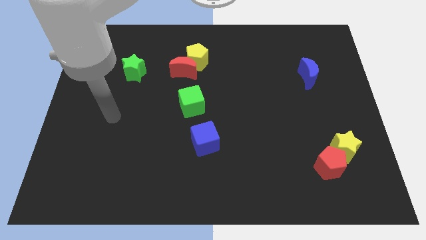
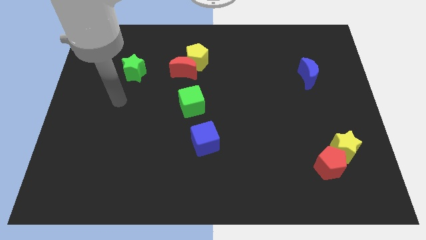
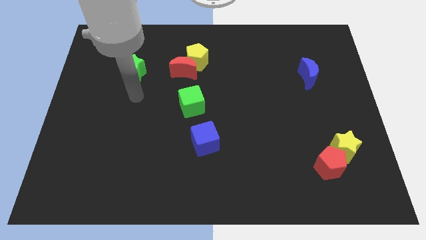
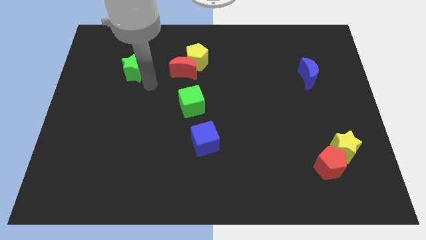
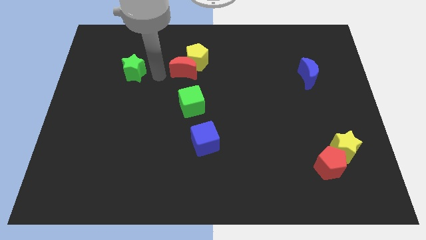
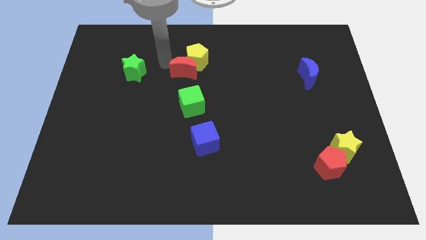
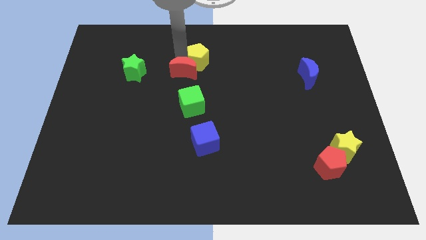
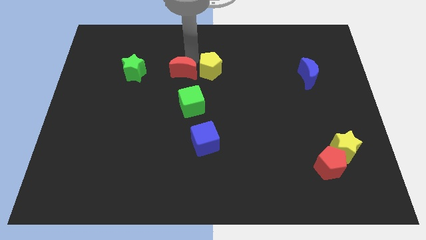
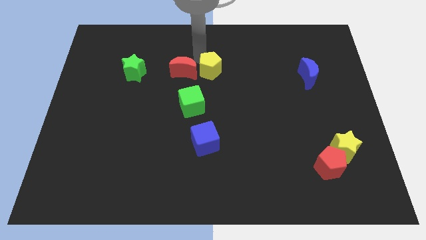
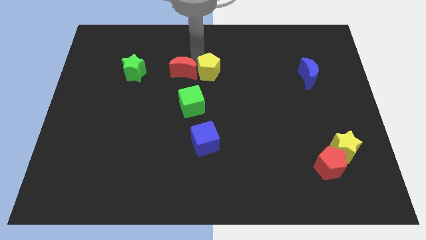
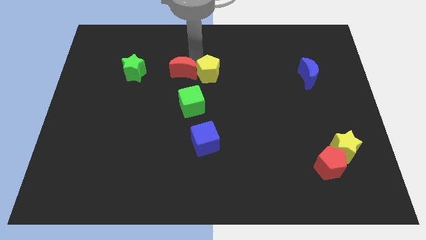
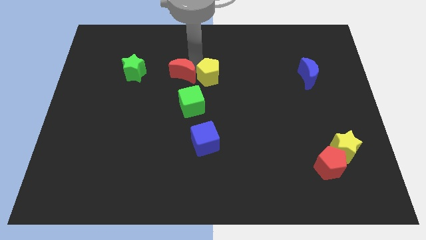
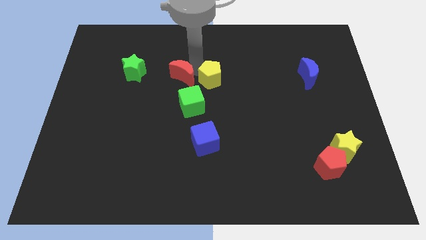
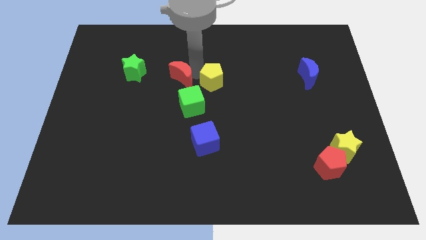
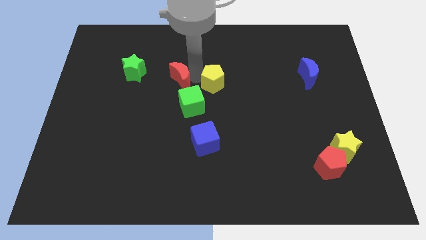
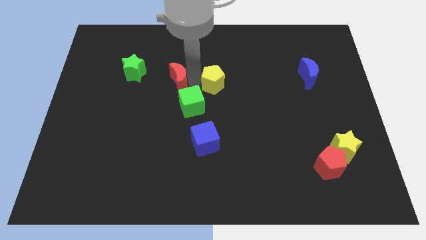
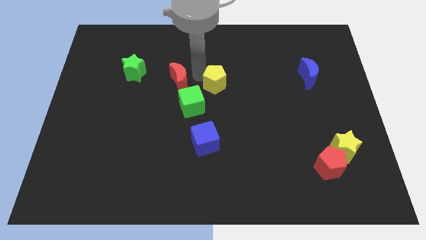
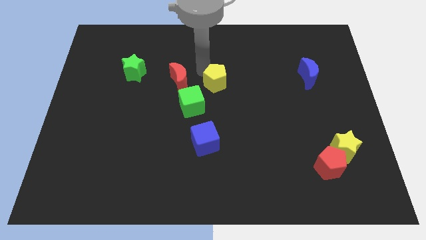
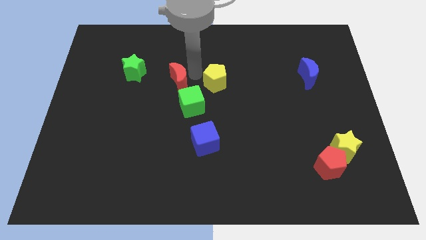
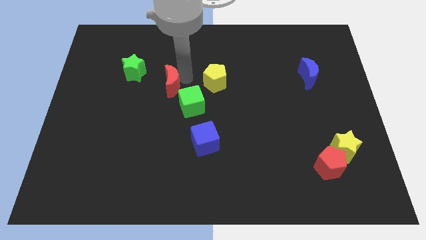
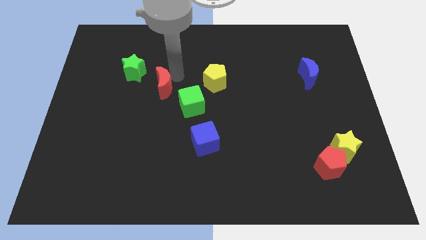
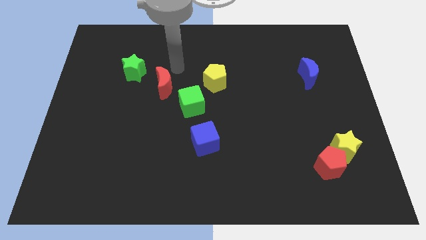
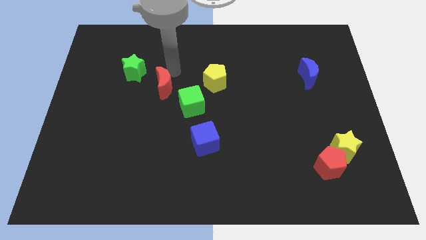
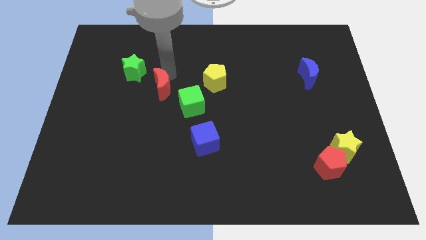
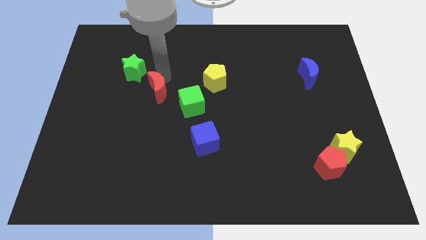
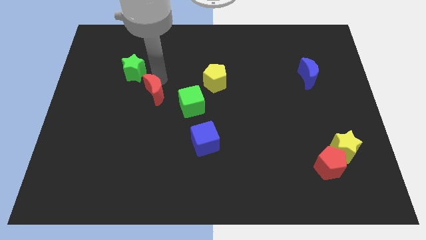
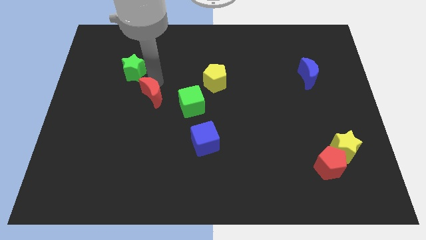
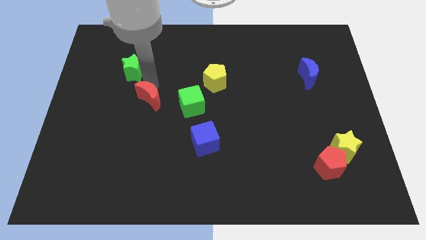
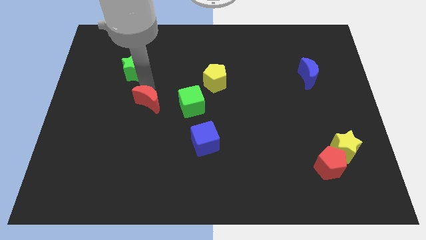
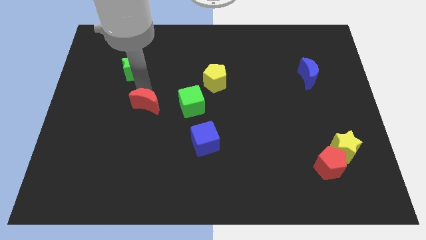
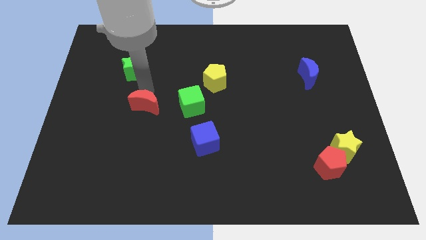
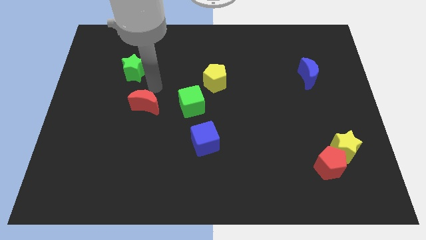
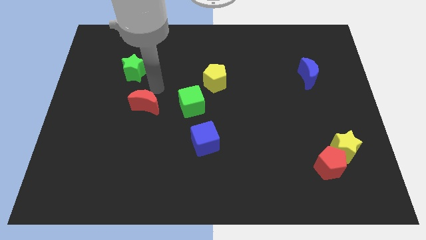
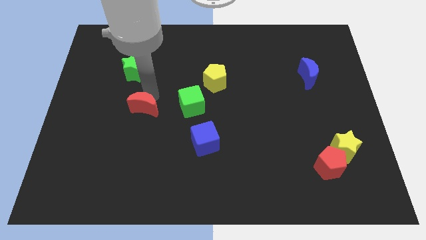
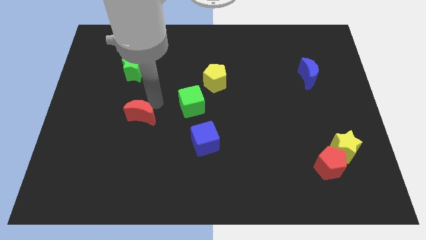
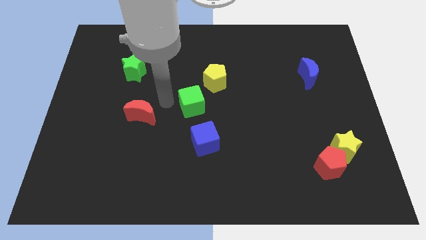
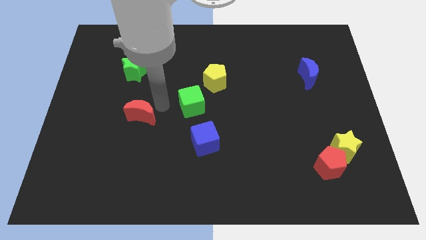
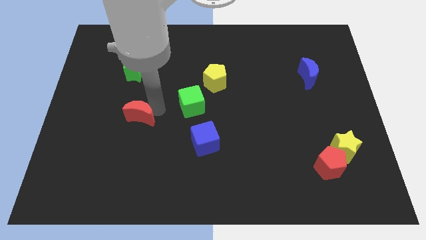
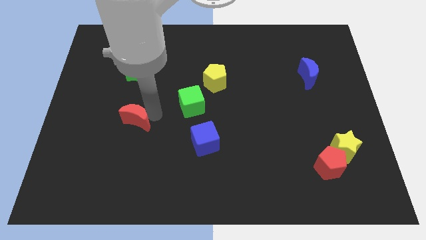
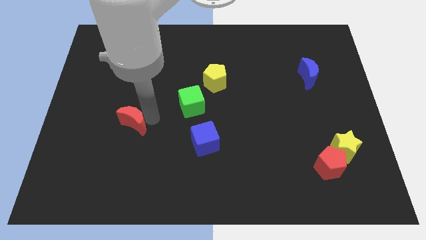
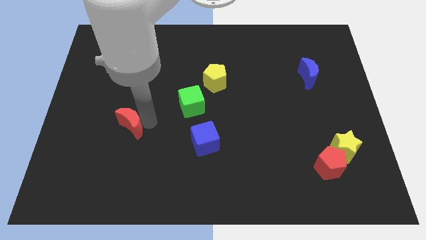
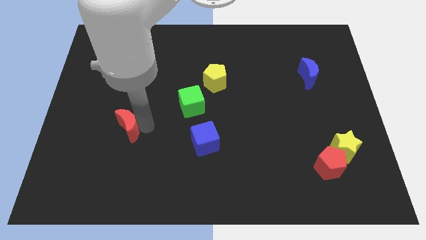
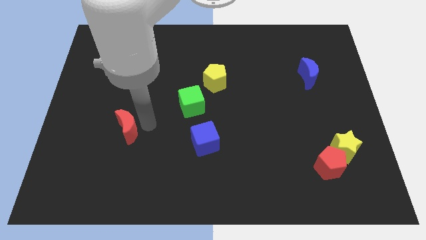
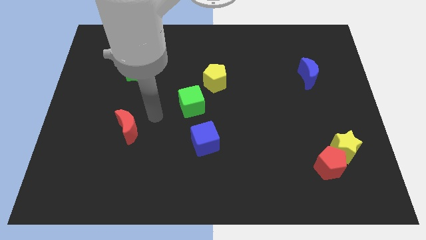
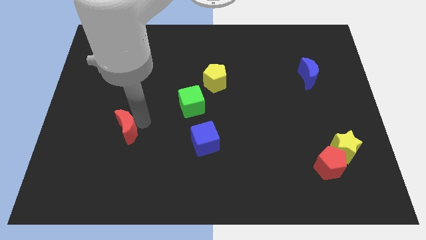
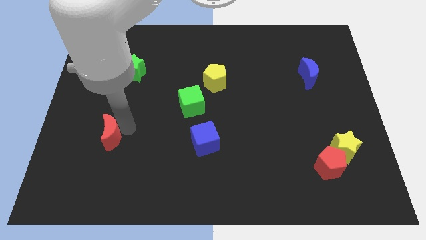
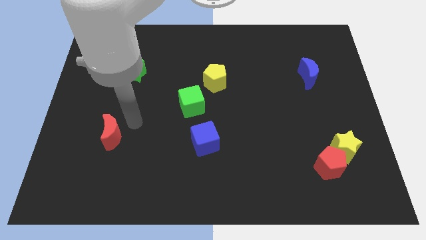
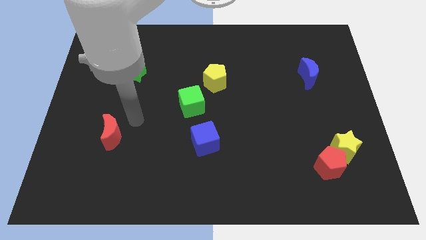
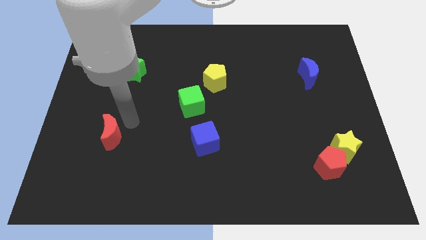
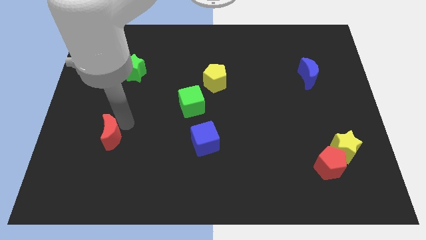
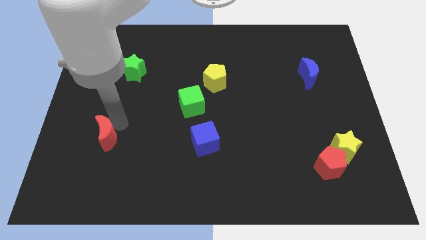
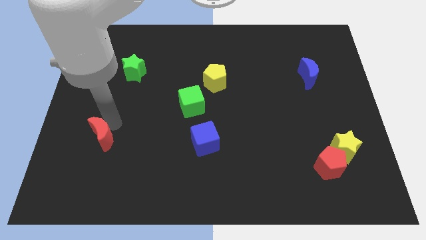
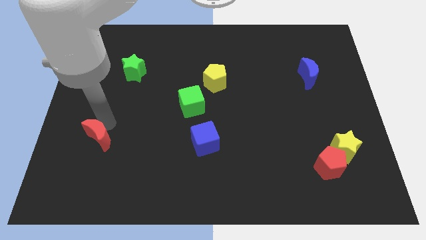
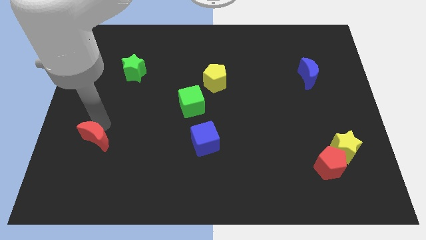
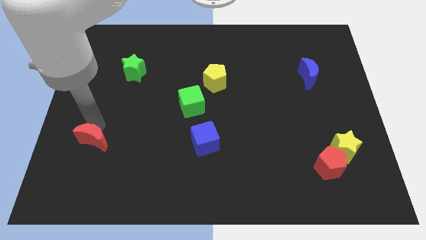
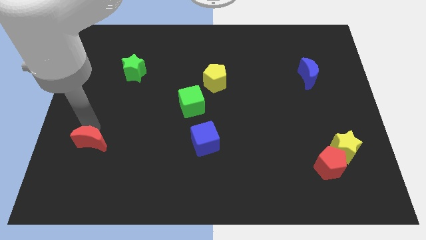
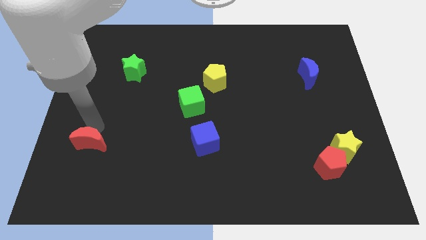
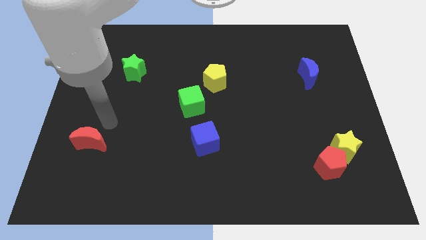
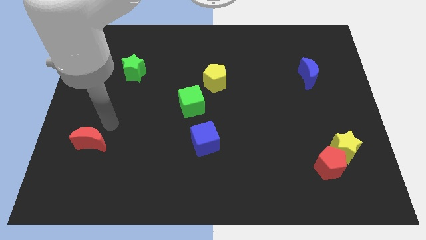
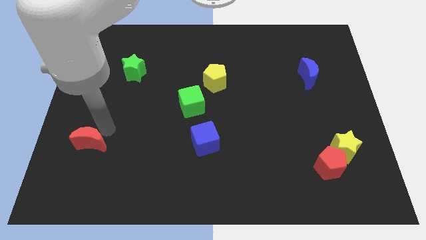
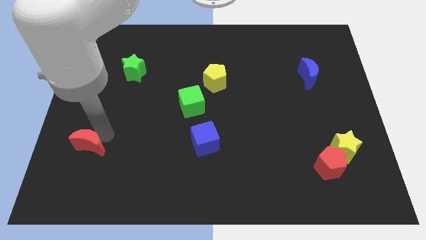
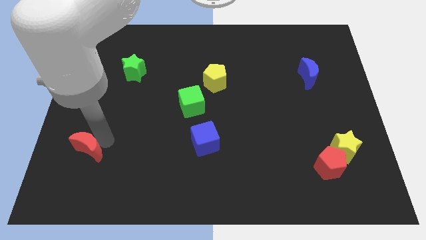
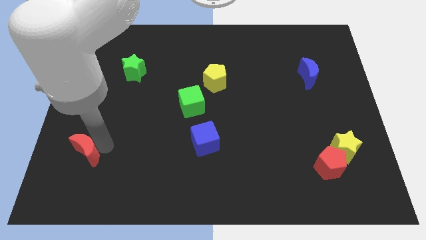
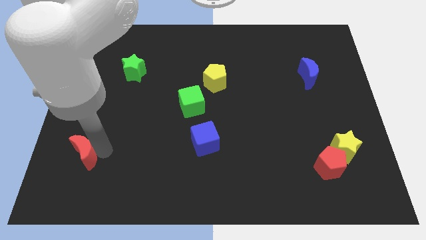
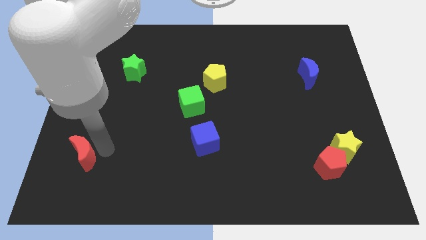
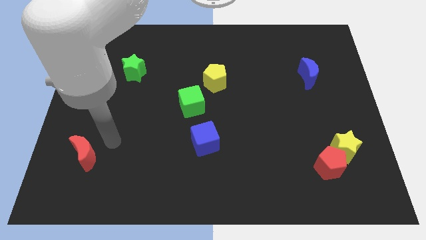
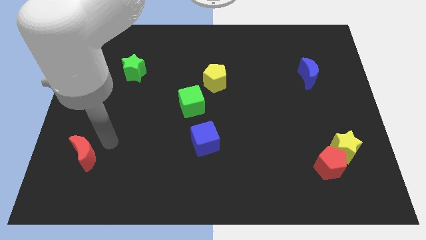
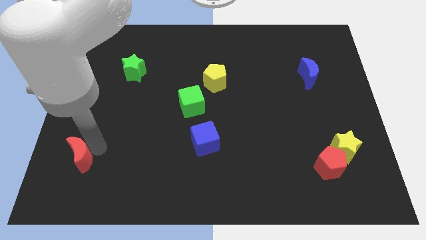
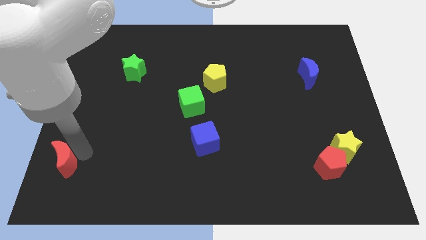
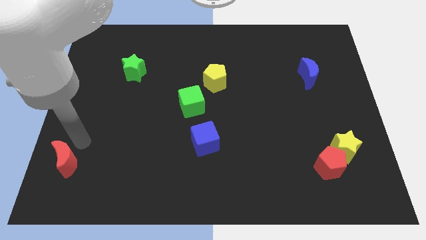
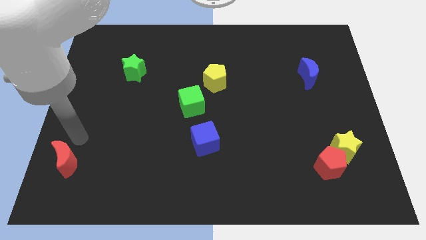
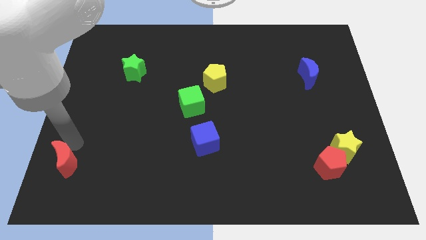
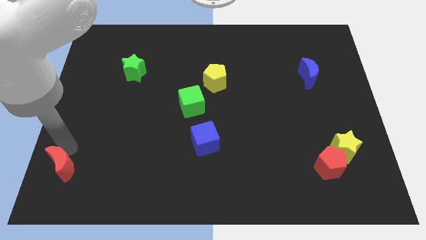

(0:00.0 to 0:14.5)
slide the red moon to the bottom left of the board

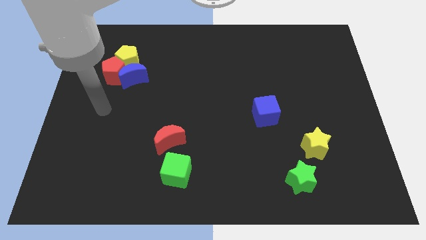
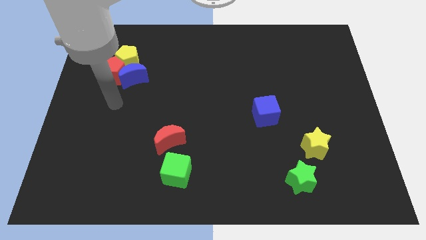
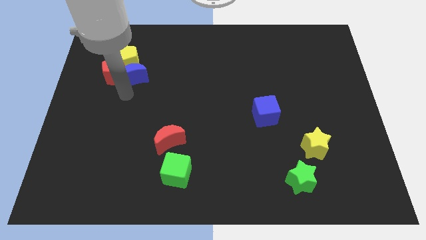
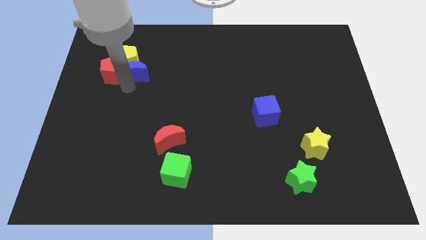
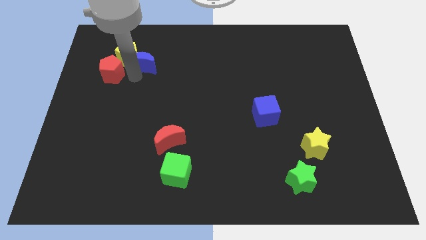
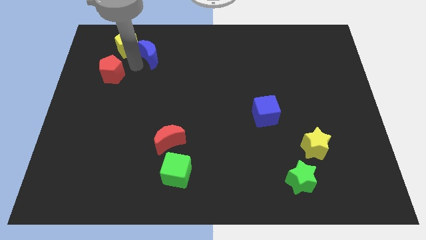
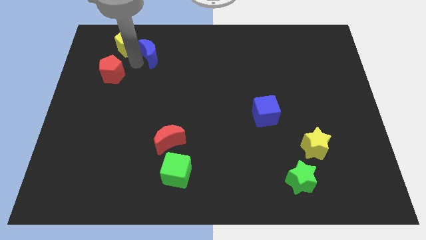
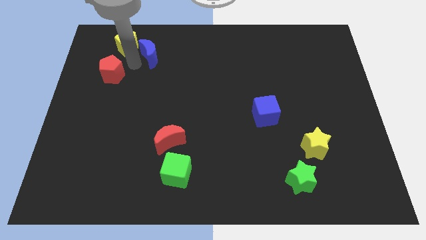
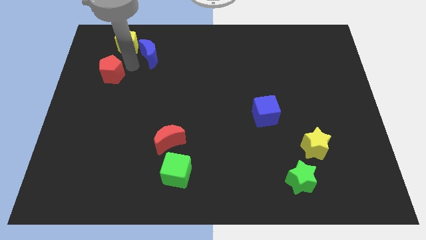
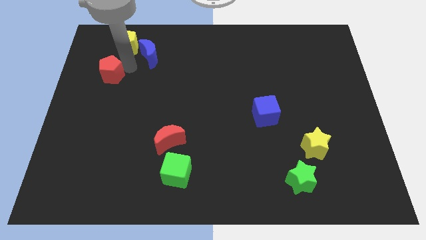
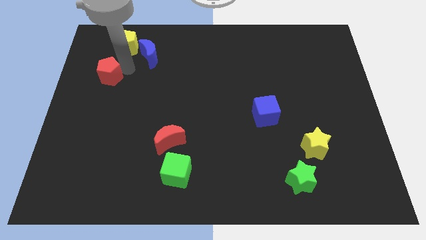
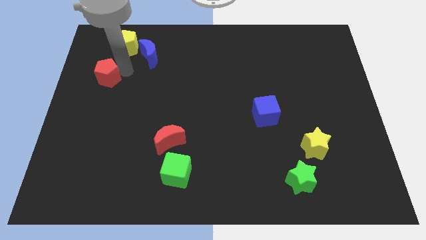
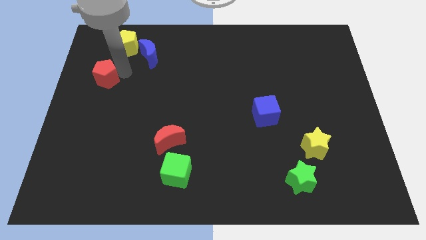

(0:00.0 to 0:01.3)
slide the red pentagon to the left side
